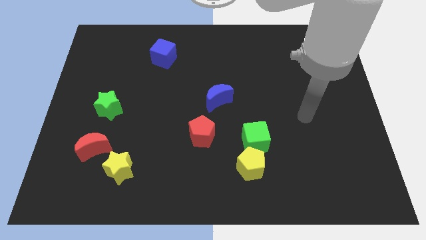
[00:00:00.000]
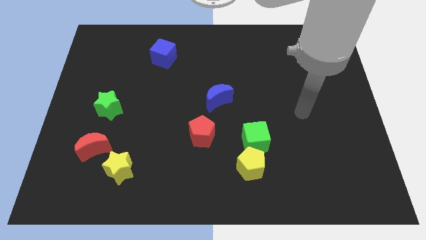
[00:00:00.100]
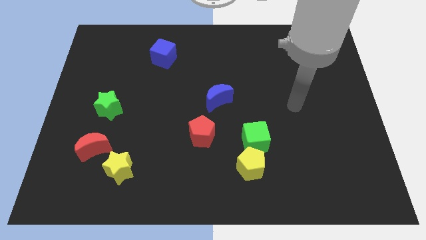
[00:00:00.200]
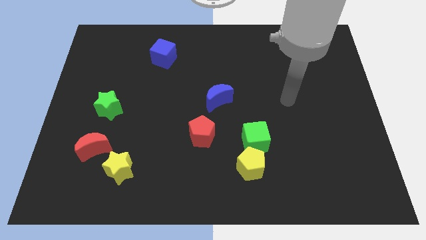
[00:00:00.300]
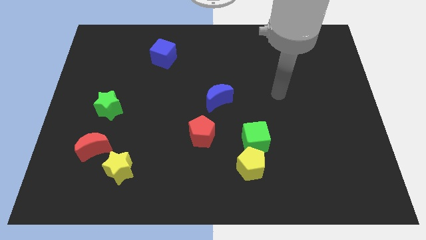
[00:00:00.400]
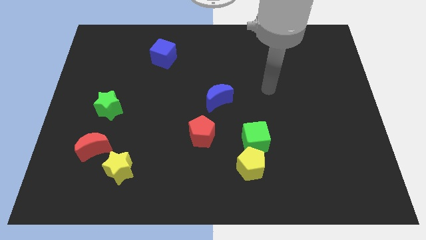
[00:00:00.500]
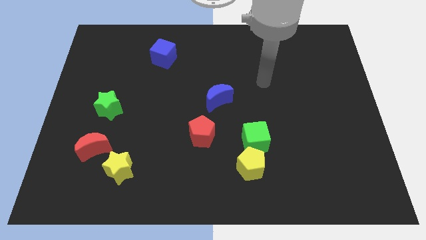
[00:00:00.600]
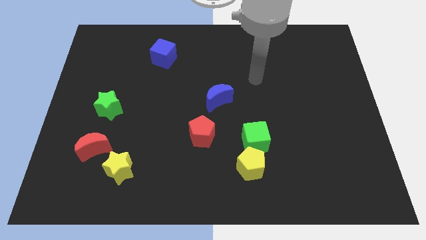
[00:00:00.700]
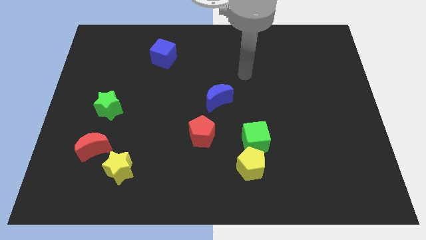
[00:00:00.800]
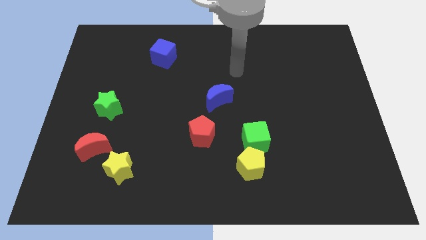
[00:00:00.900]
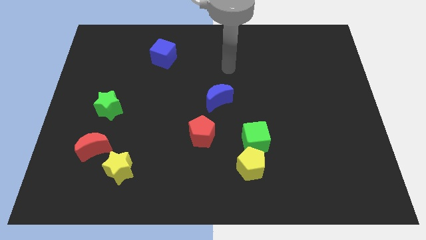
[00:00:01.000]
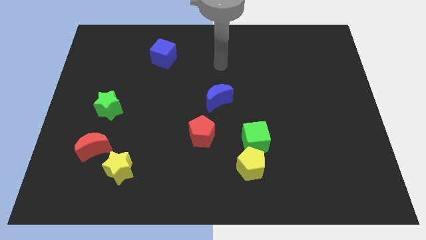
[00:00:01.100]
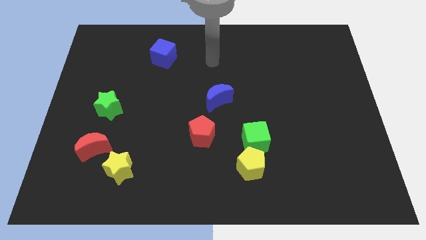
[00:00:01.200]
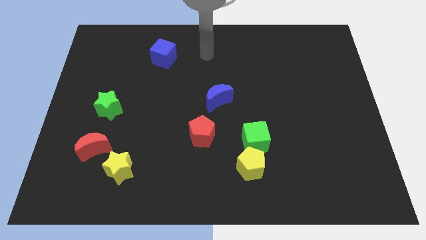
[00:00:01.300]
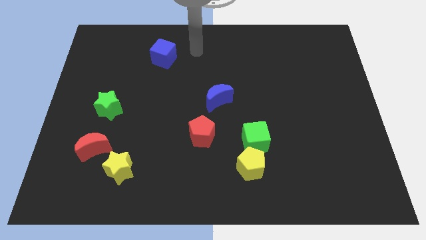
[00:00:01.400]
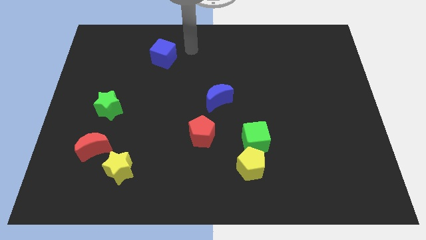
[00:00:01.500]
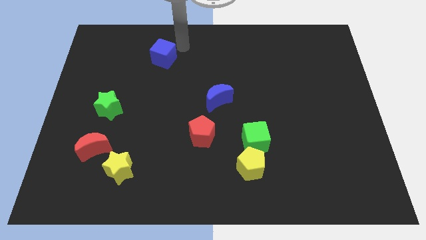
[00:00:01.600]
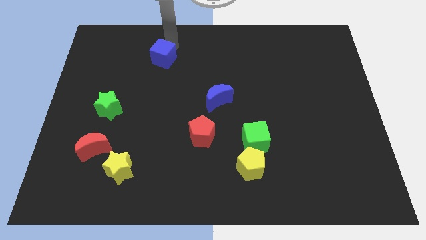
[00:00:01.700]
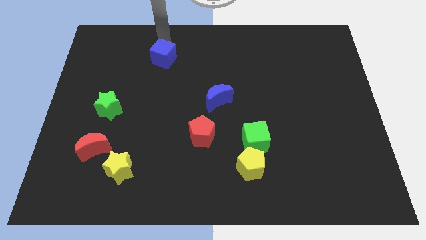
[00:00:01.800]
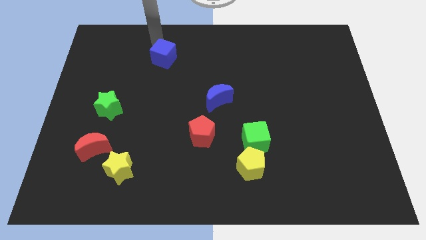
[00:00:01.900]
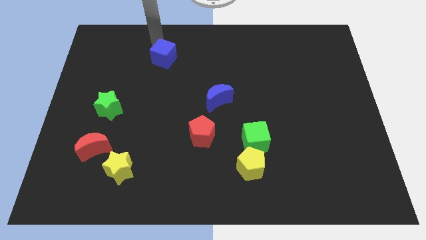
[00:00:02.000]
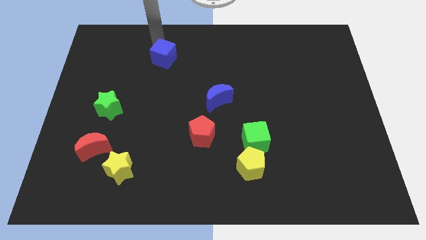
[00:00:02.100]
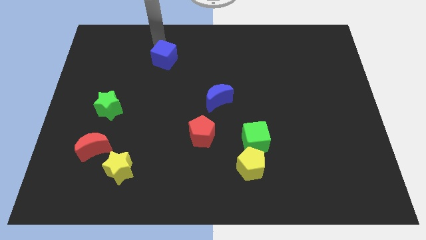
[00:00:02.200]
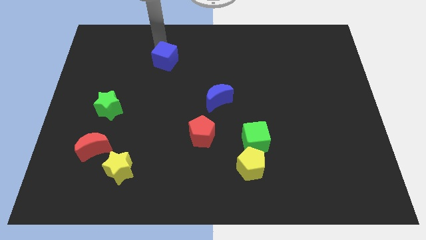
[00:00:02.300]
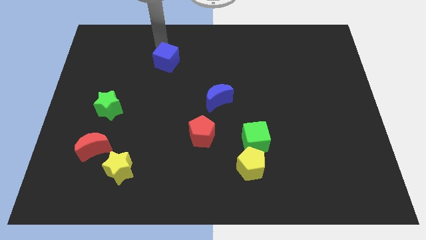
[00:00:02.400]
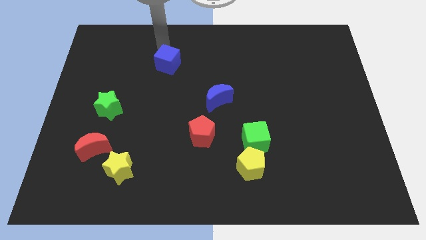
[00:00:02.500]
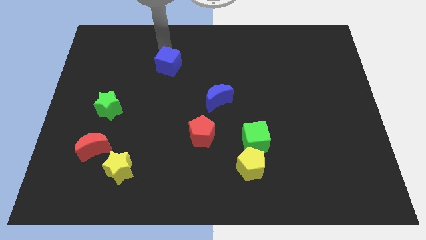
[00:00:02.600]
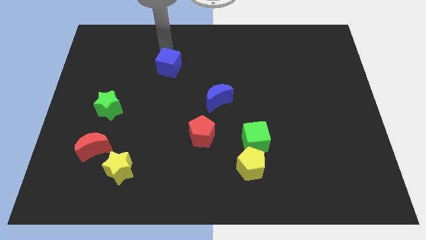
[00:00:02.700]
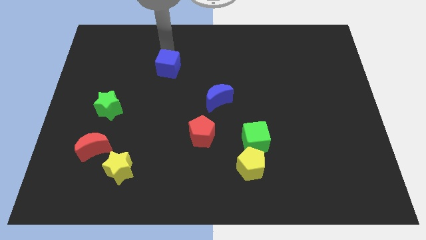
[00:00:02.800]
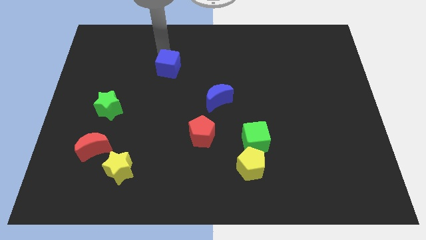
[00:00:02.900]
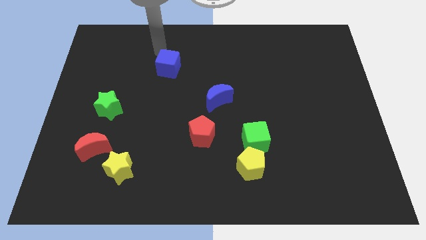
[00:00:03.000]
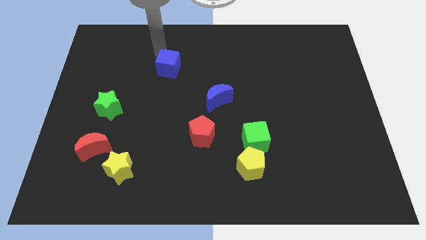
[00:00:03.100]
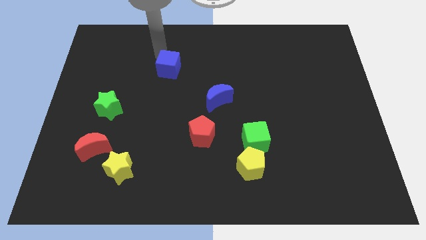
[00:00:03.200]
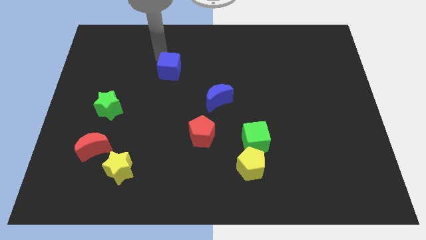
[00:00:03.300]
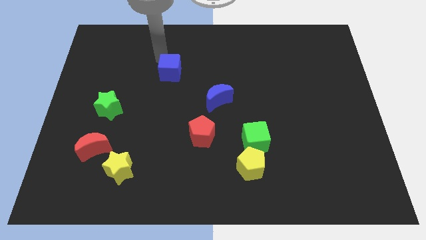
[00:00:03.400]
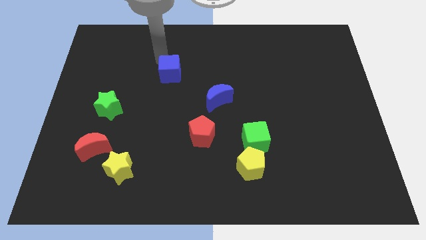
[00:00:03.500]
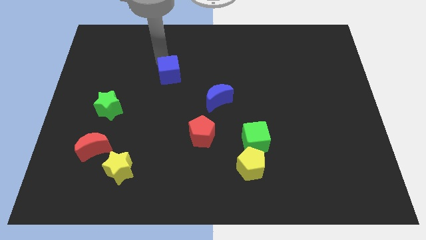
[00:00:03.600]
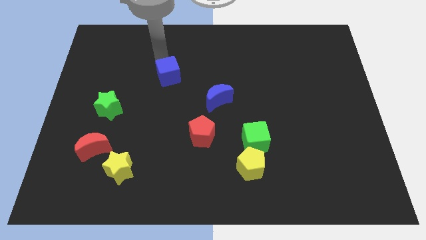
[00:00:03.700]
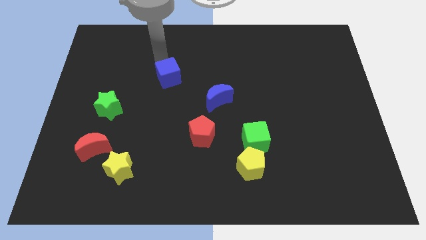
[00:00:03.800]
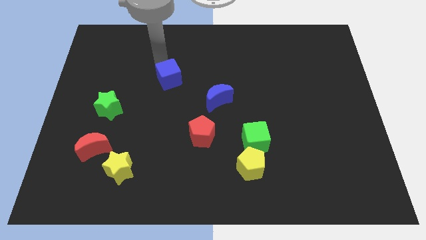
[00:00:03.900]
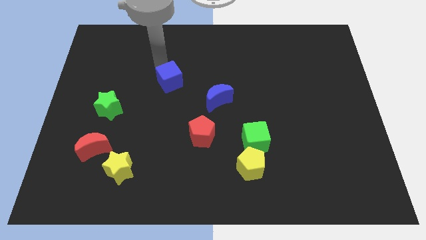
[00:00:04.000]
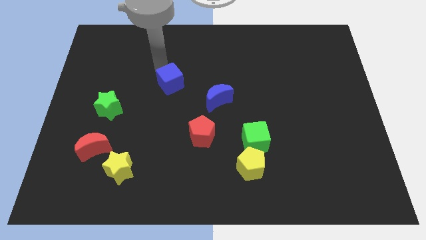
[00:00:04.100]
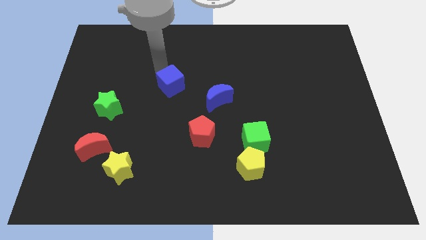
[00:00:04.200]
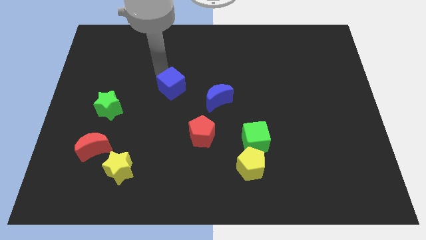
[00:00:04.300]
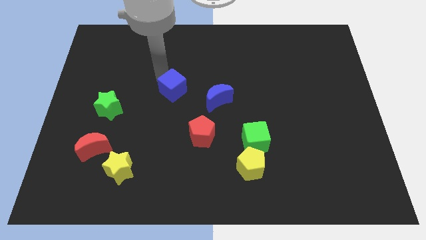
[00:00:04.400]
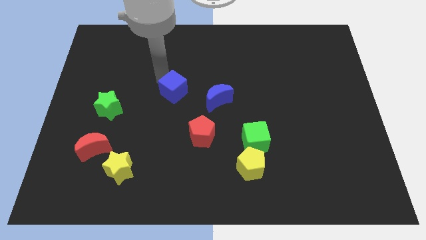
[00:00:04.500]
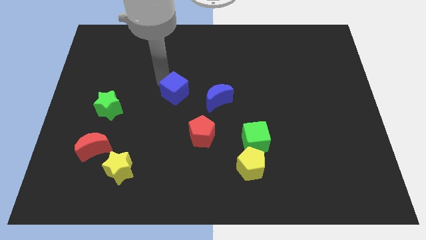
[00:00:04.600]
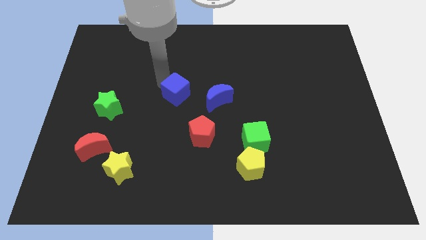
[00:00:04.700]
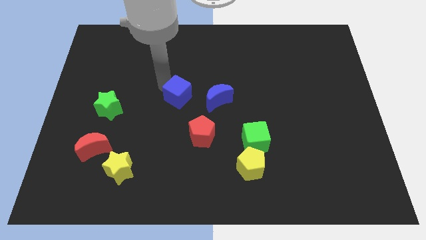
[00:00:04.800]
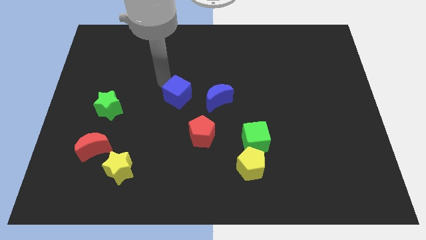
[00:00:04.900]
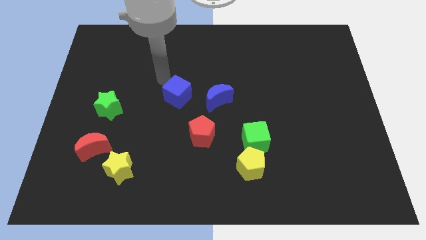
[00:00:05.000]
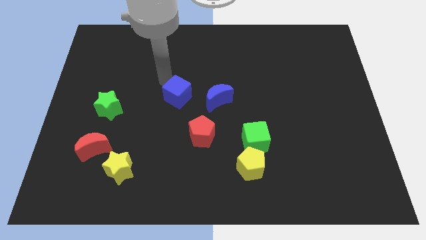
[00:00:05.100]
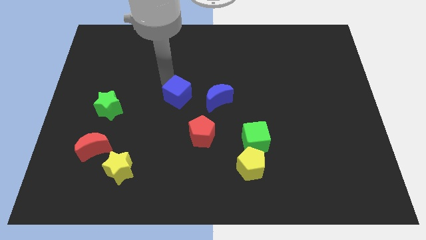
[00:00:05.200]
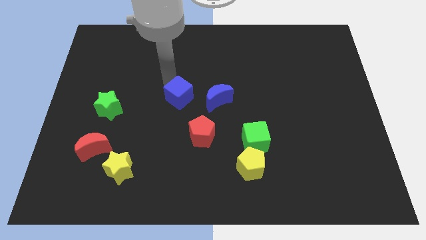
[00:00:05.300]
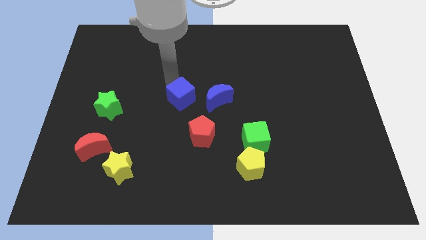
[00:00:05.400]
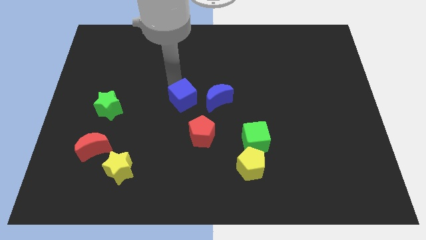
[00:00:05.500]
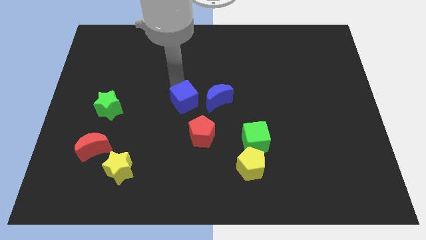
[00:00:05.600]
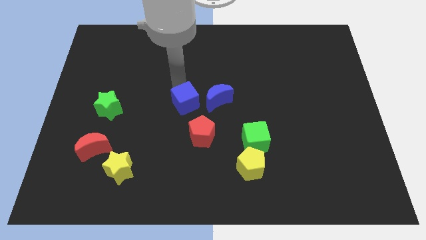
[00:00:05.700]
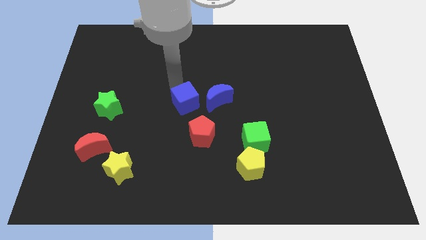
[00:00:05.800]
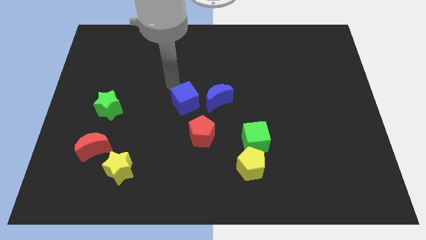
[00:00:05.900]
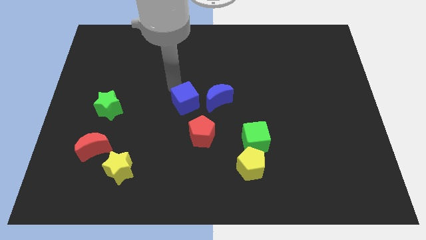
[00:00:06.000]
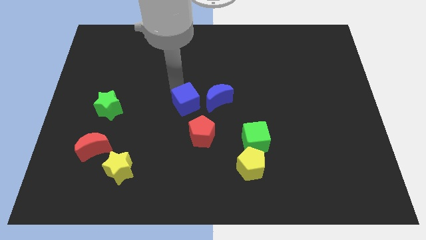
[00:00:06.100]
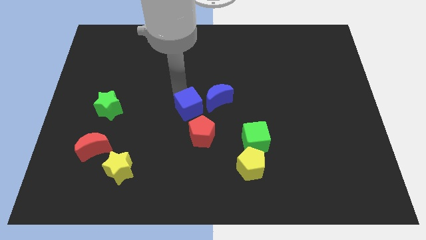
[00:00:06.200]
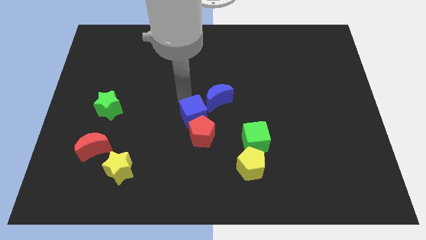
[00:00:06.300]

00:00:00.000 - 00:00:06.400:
push the blue cube to the red pentagon
